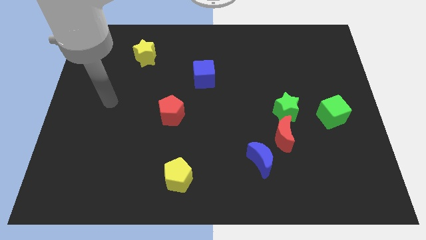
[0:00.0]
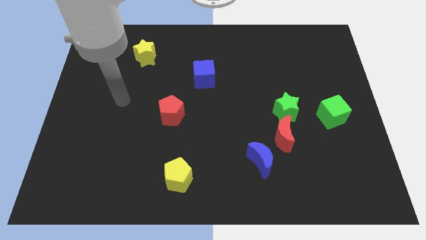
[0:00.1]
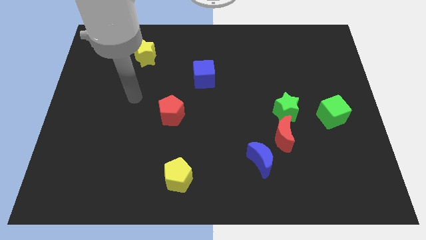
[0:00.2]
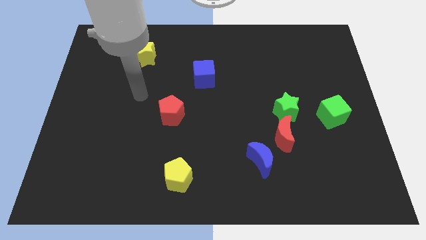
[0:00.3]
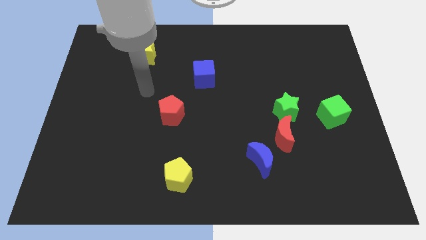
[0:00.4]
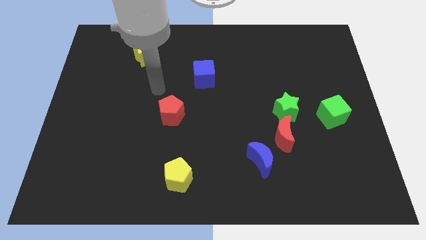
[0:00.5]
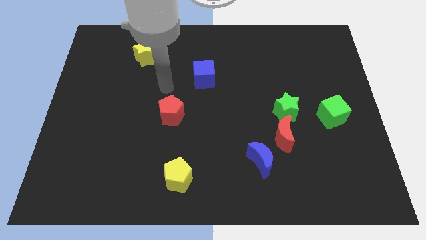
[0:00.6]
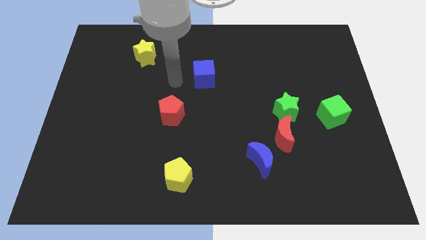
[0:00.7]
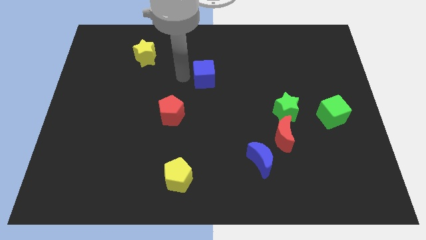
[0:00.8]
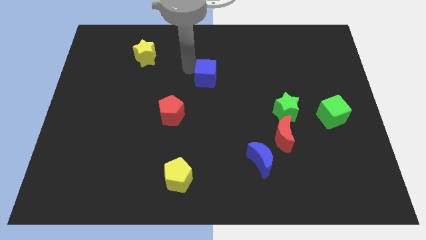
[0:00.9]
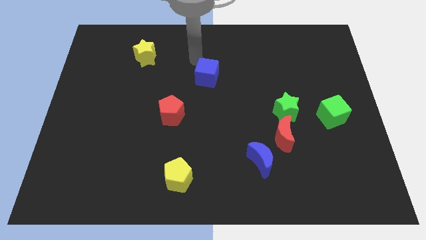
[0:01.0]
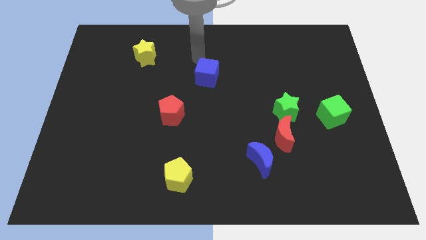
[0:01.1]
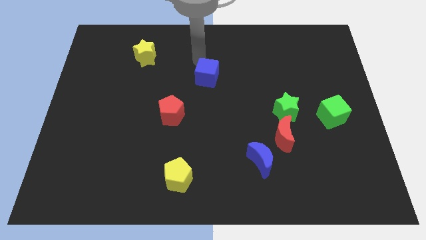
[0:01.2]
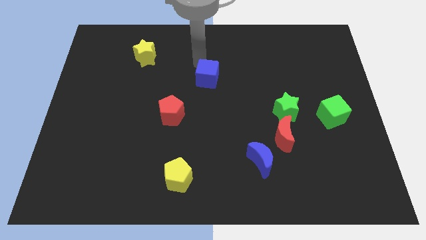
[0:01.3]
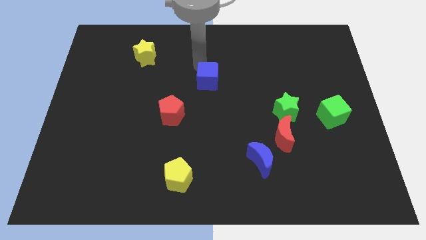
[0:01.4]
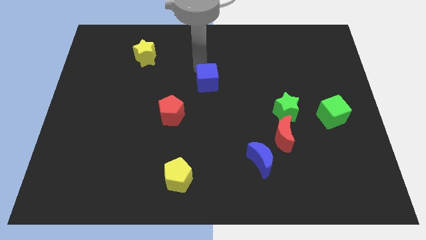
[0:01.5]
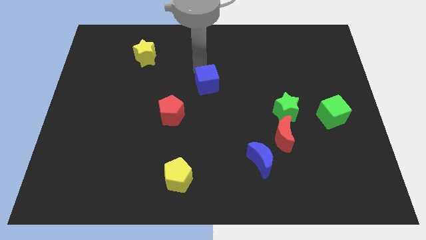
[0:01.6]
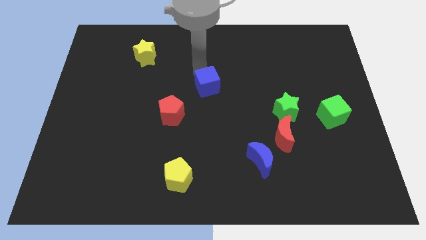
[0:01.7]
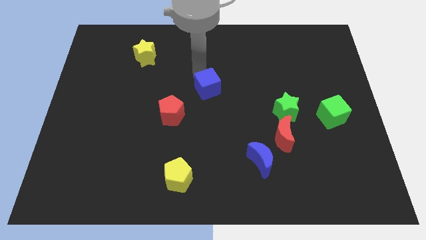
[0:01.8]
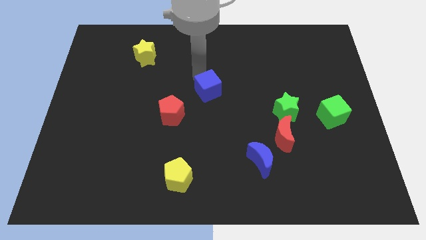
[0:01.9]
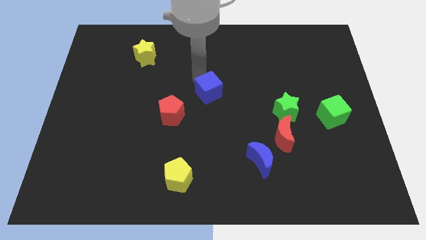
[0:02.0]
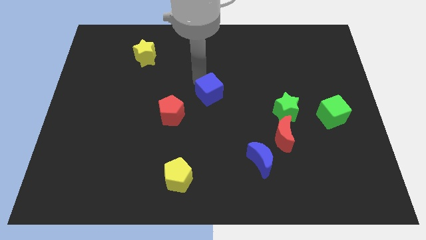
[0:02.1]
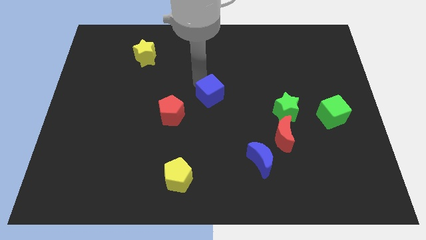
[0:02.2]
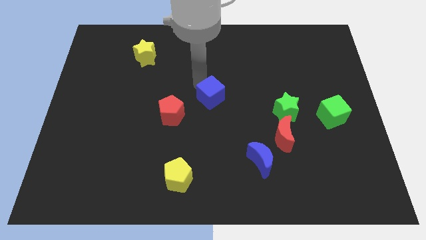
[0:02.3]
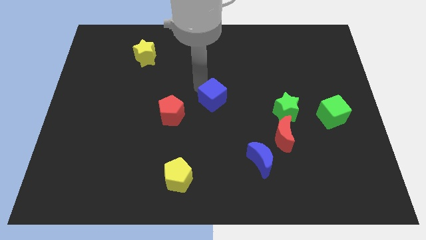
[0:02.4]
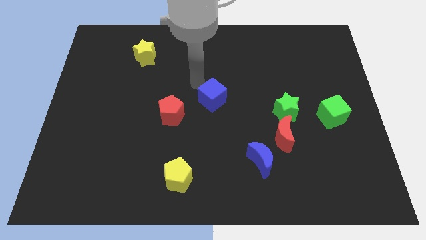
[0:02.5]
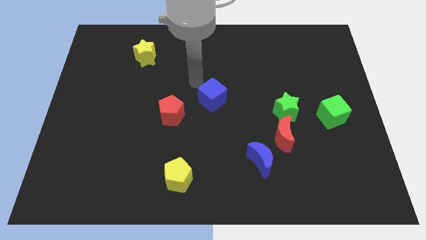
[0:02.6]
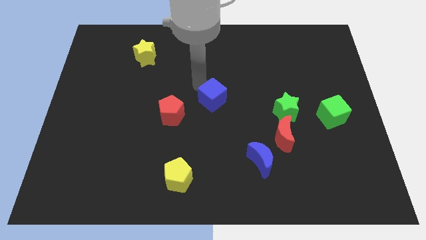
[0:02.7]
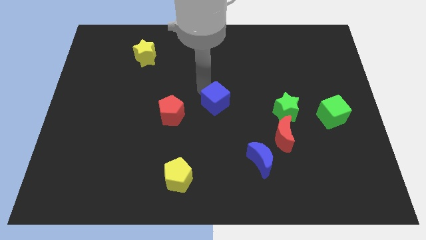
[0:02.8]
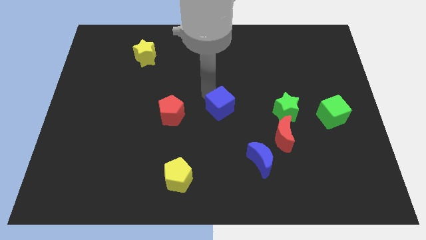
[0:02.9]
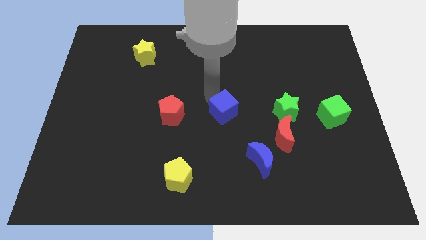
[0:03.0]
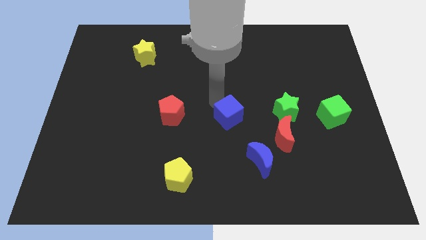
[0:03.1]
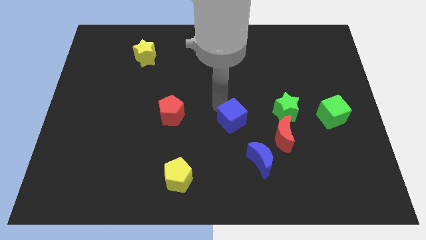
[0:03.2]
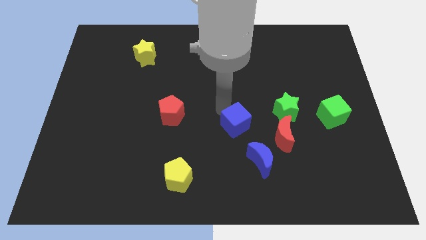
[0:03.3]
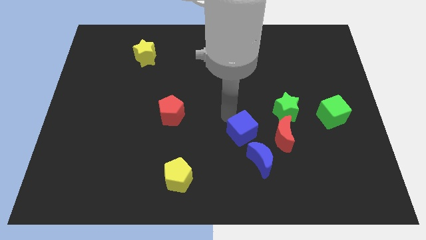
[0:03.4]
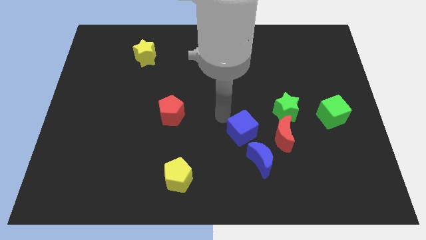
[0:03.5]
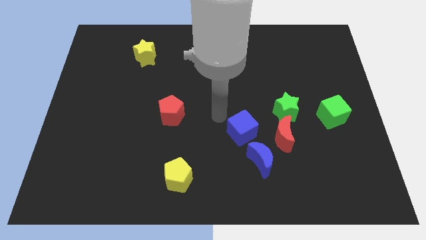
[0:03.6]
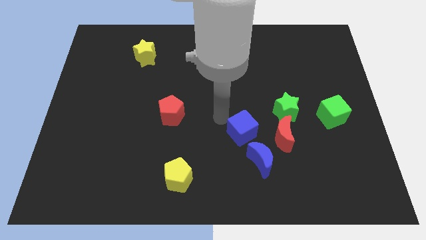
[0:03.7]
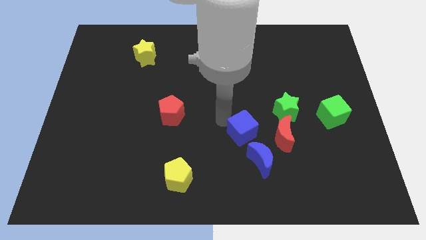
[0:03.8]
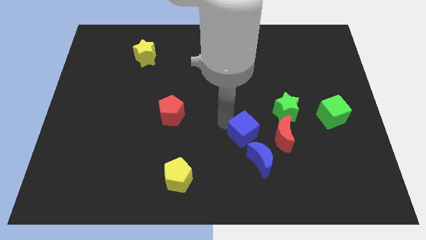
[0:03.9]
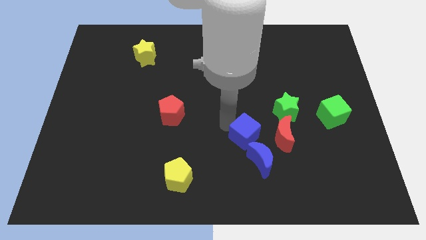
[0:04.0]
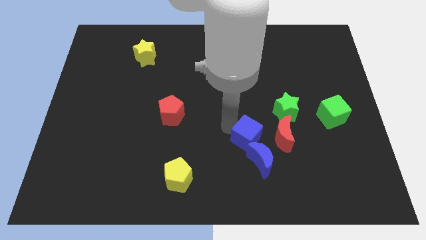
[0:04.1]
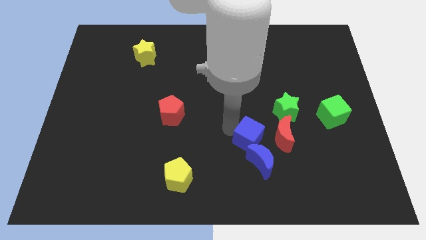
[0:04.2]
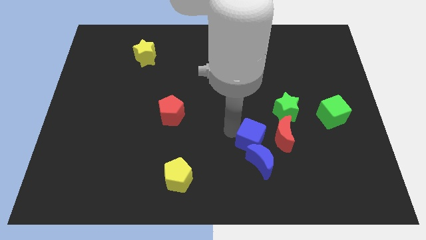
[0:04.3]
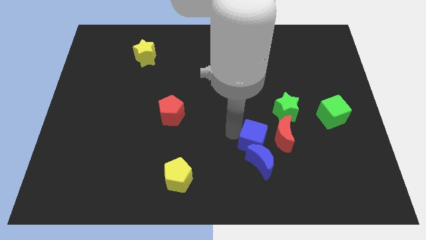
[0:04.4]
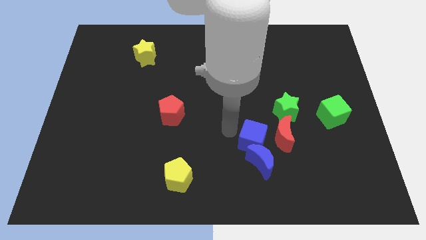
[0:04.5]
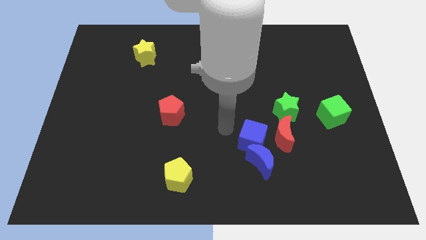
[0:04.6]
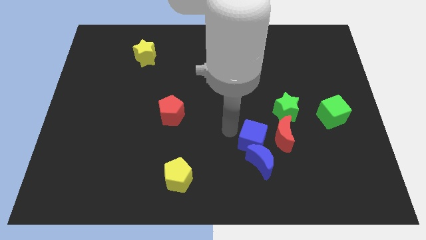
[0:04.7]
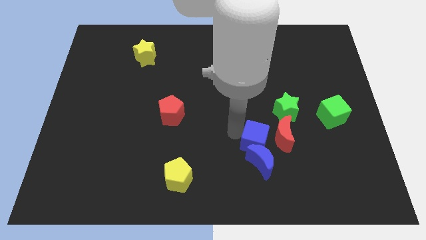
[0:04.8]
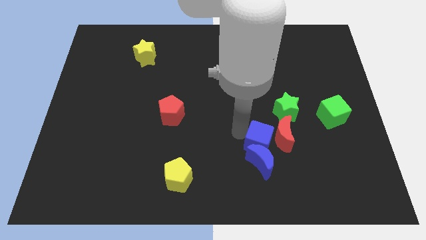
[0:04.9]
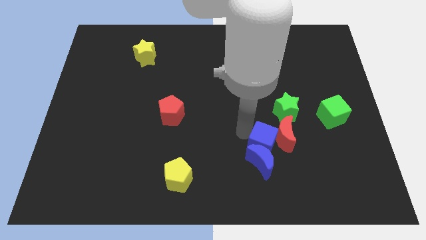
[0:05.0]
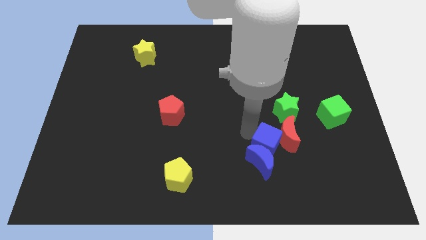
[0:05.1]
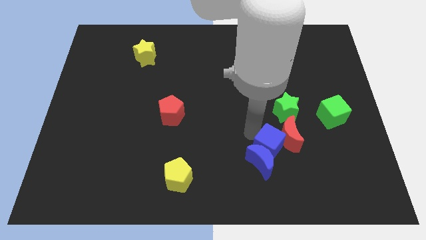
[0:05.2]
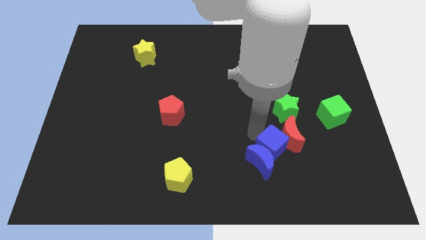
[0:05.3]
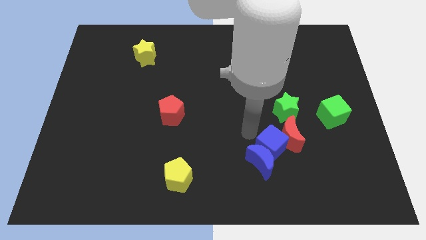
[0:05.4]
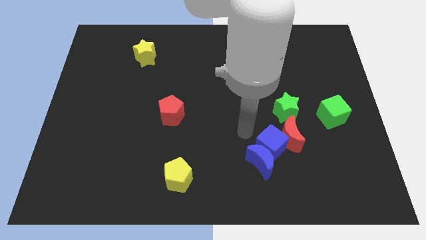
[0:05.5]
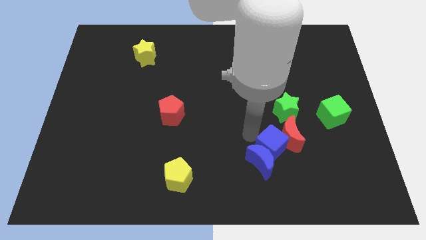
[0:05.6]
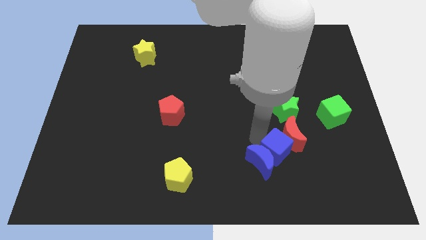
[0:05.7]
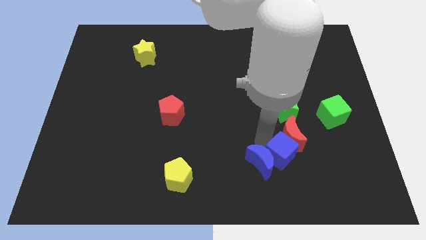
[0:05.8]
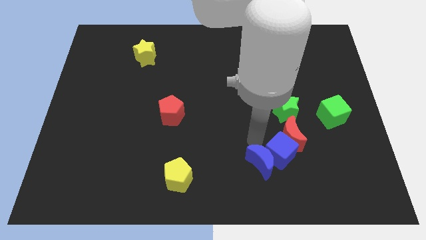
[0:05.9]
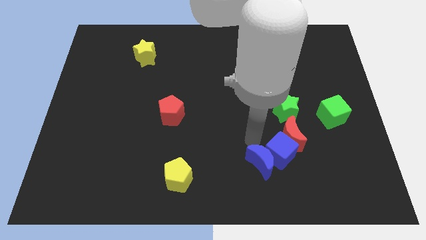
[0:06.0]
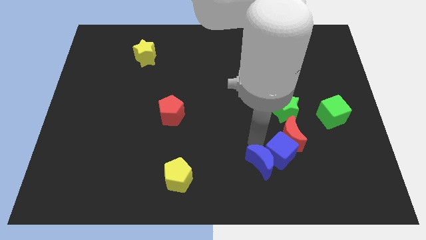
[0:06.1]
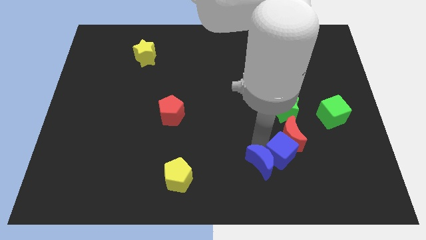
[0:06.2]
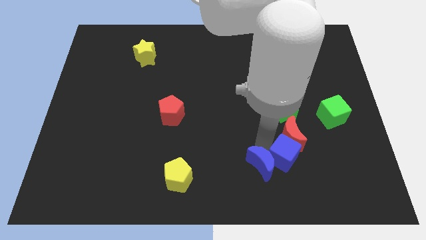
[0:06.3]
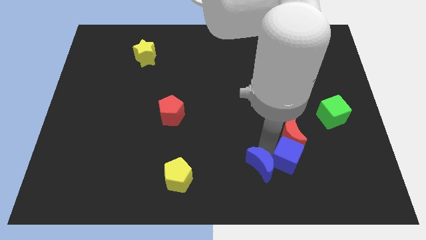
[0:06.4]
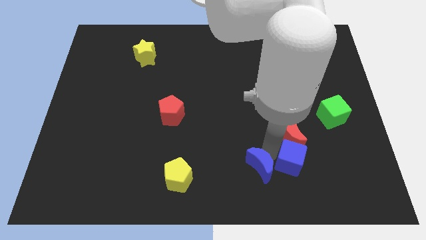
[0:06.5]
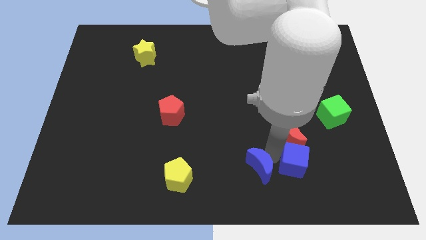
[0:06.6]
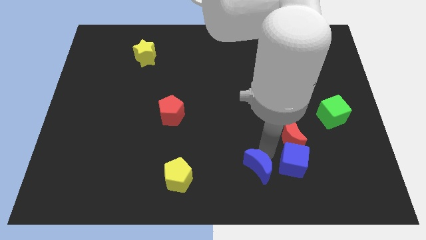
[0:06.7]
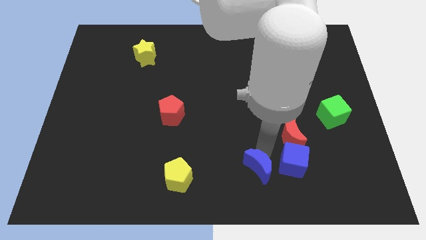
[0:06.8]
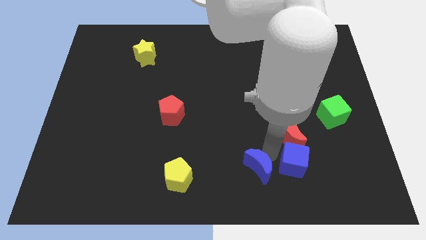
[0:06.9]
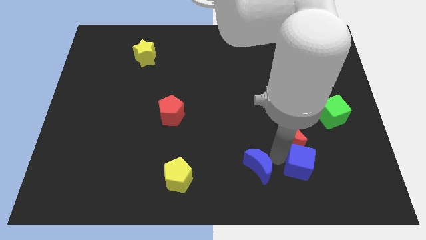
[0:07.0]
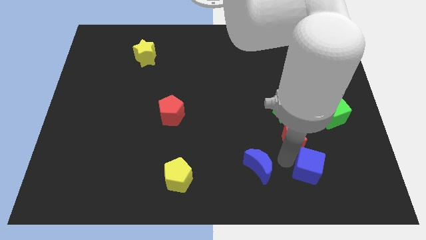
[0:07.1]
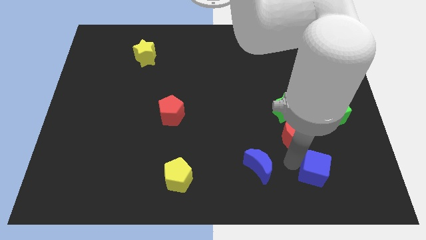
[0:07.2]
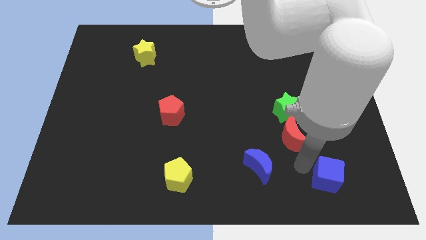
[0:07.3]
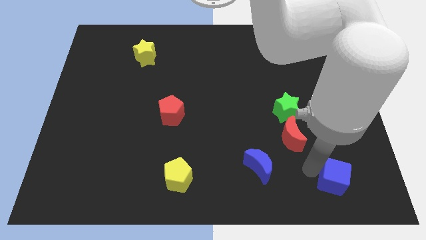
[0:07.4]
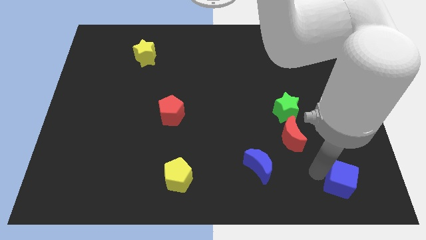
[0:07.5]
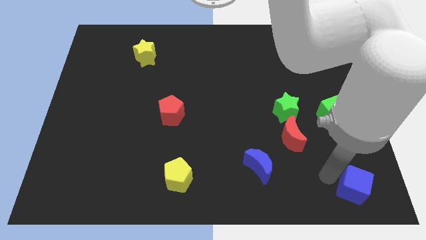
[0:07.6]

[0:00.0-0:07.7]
put the blue cube to the bottom right
